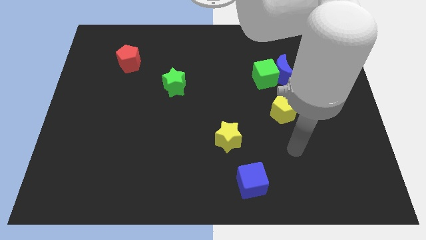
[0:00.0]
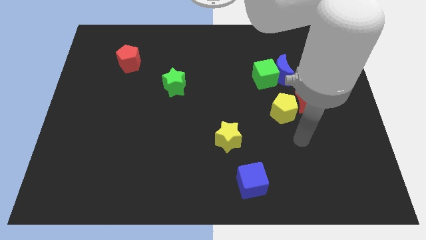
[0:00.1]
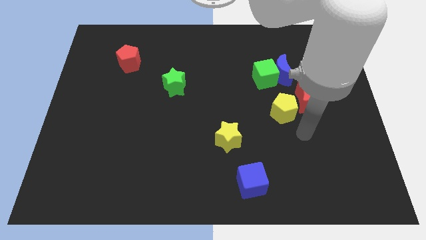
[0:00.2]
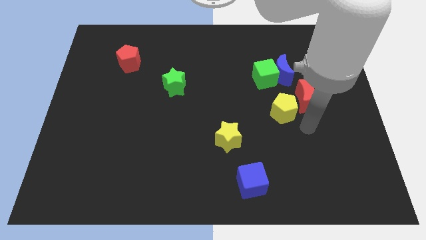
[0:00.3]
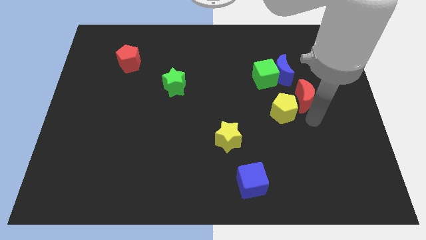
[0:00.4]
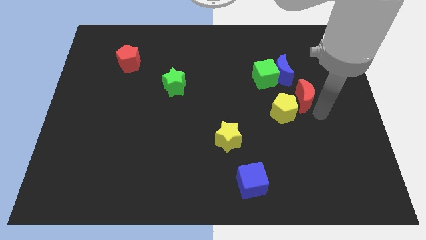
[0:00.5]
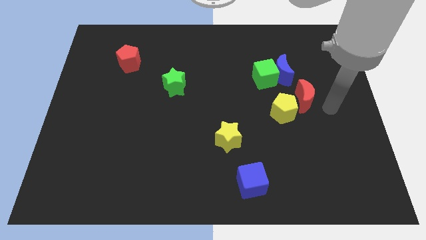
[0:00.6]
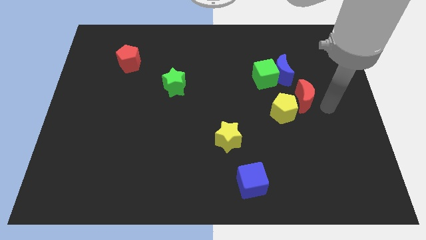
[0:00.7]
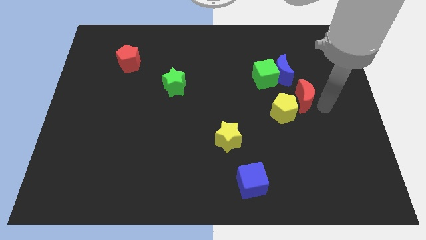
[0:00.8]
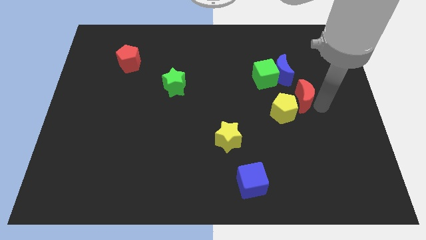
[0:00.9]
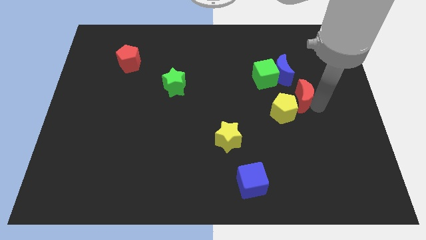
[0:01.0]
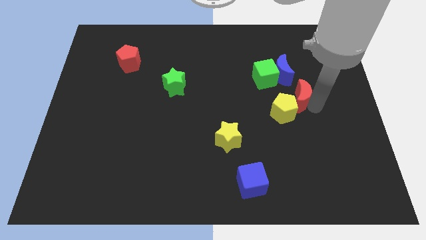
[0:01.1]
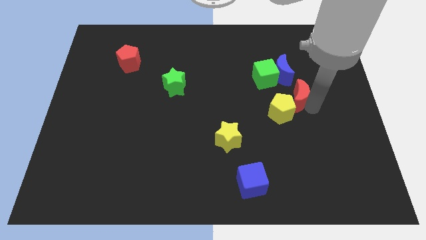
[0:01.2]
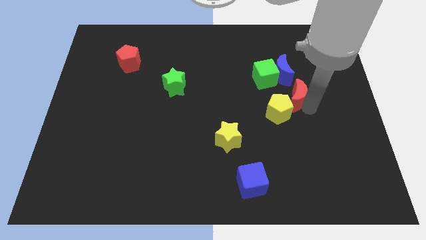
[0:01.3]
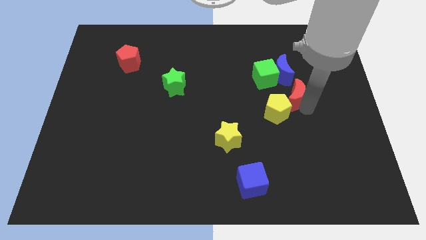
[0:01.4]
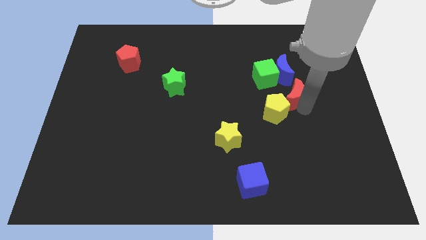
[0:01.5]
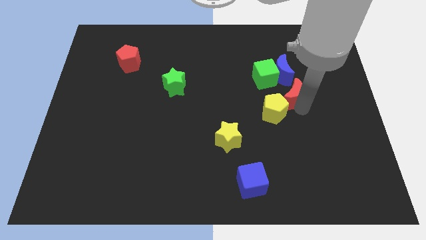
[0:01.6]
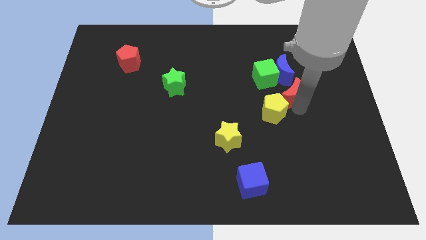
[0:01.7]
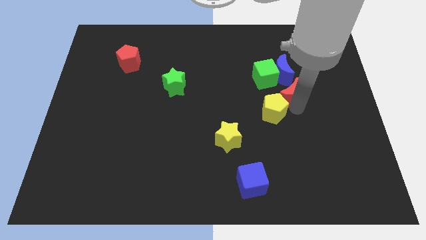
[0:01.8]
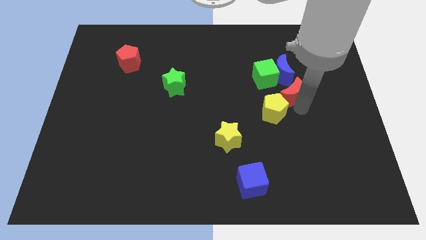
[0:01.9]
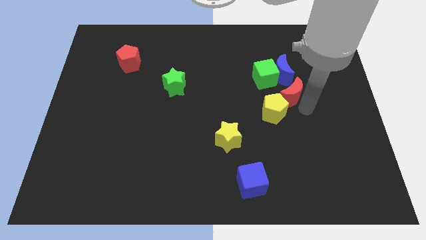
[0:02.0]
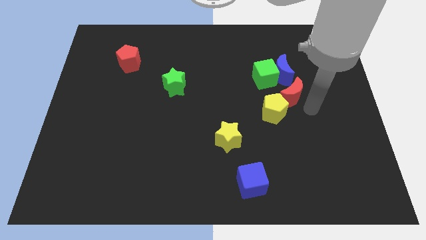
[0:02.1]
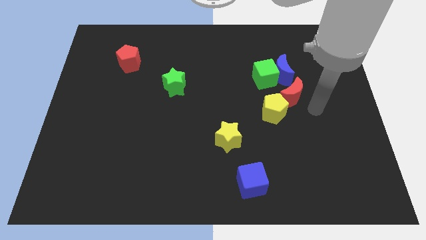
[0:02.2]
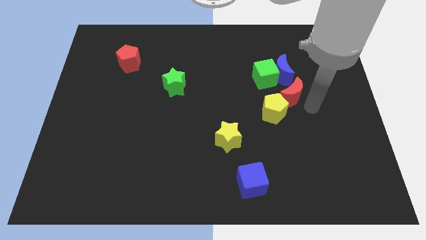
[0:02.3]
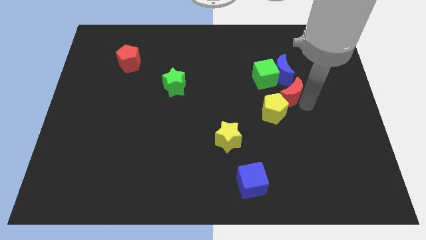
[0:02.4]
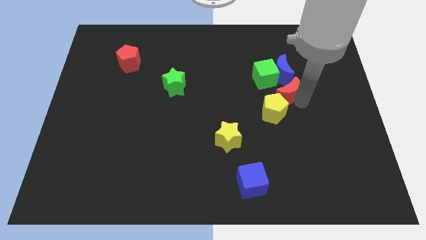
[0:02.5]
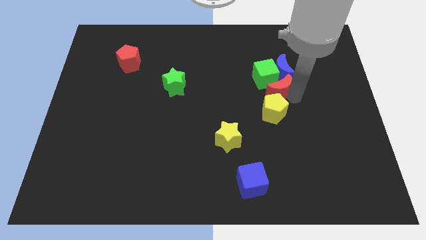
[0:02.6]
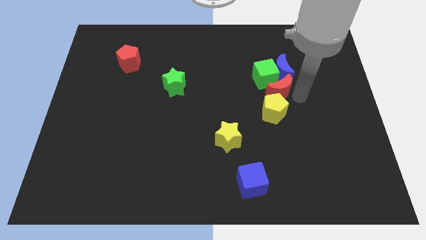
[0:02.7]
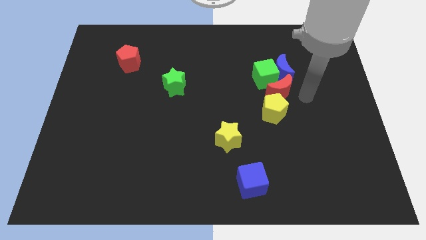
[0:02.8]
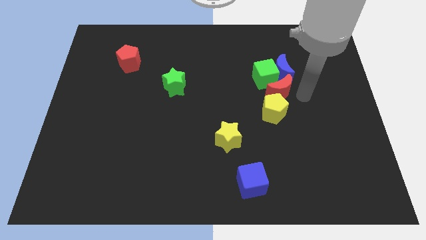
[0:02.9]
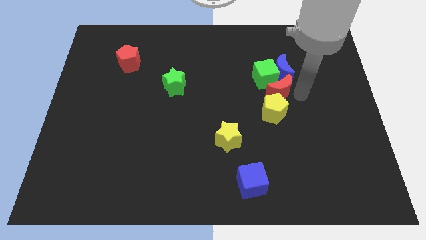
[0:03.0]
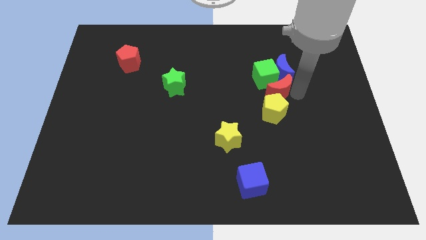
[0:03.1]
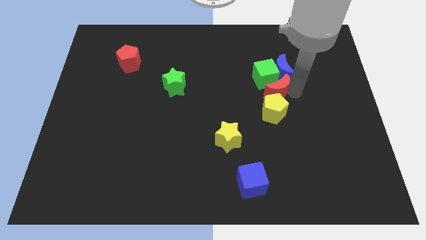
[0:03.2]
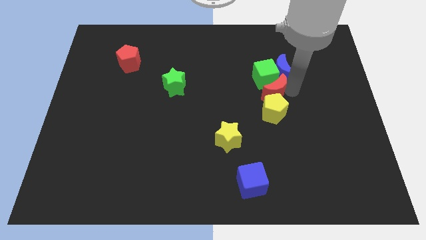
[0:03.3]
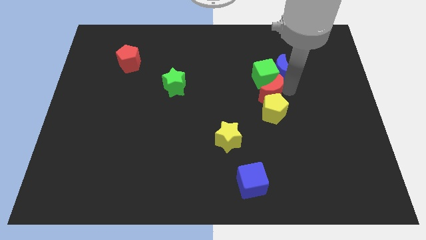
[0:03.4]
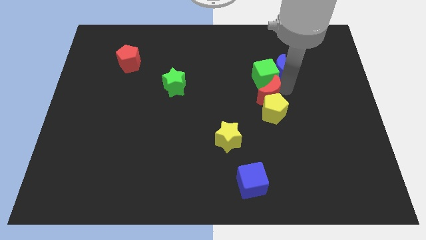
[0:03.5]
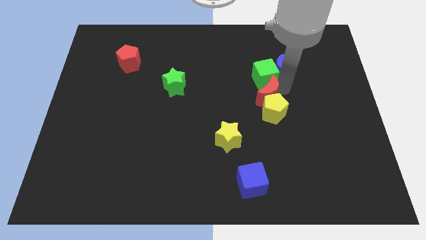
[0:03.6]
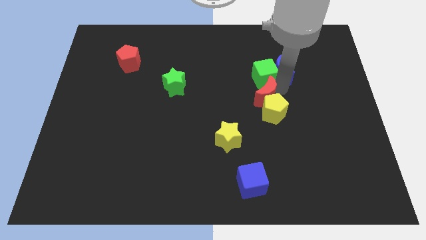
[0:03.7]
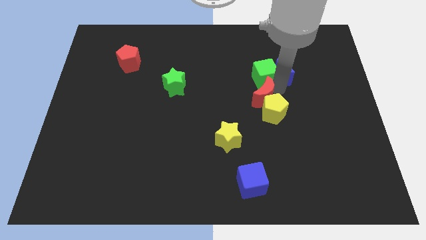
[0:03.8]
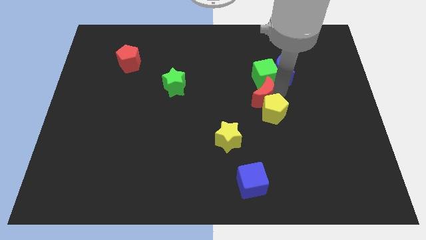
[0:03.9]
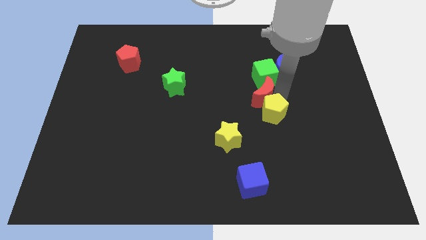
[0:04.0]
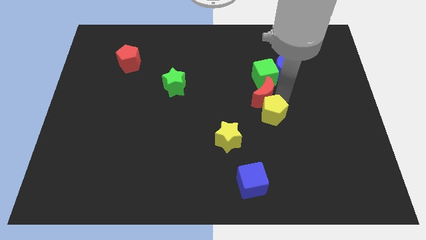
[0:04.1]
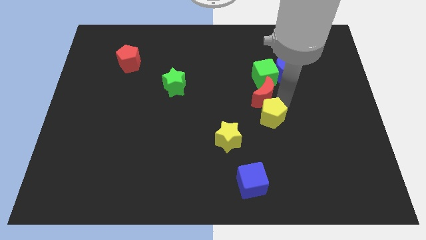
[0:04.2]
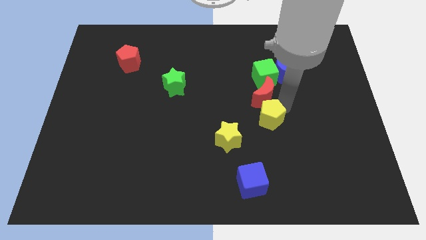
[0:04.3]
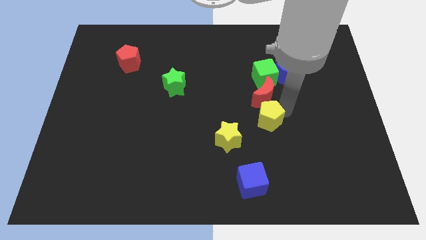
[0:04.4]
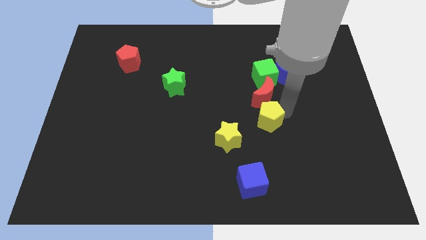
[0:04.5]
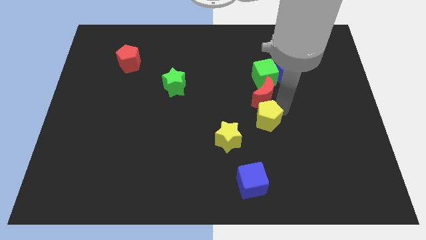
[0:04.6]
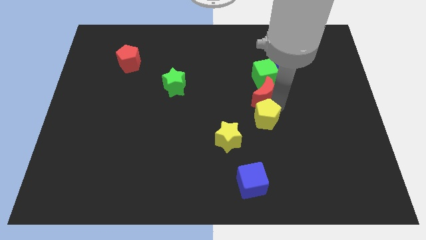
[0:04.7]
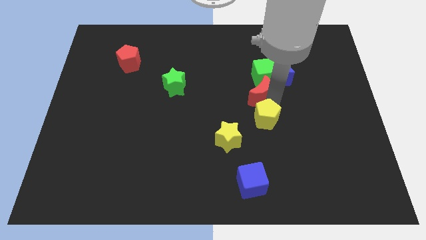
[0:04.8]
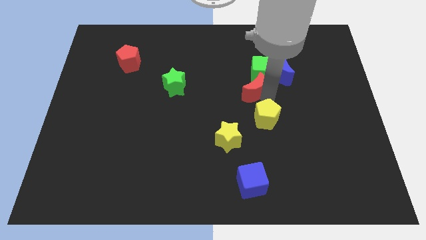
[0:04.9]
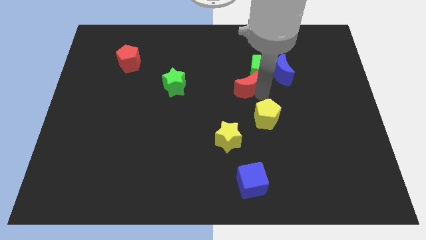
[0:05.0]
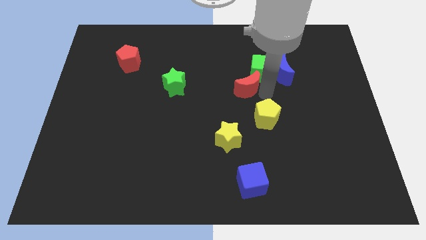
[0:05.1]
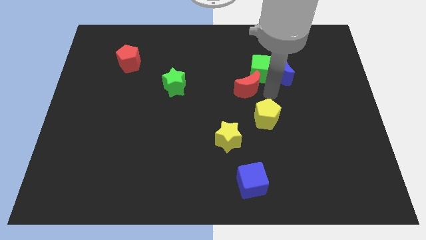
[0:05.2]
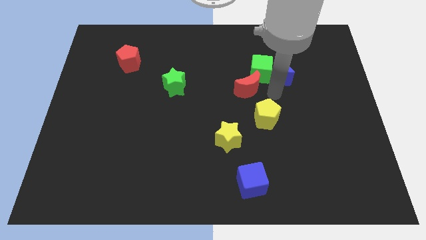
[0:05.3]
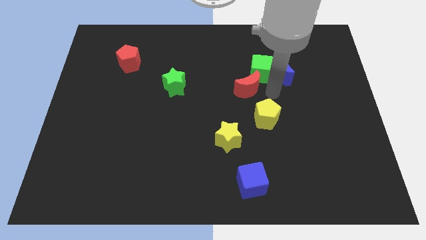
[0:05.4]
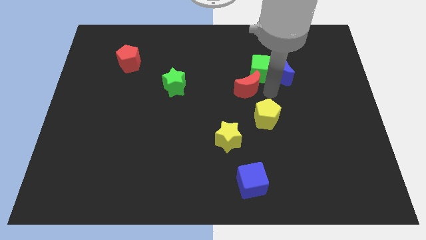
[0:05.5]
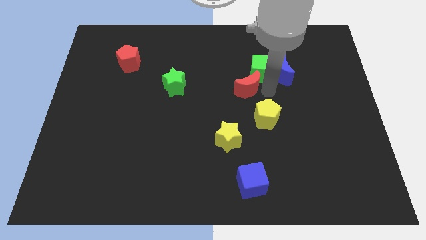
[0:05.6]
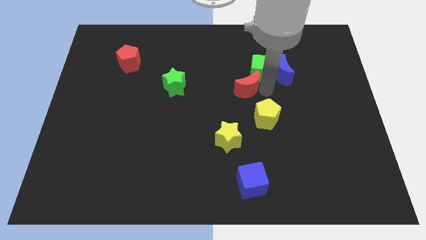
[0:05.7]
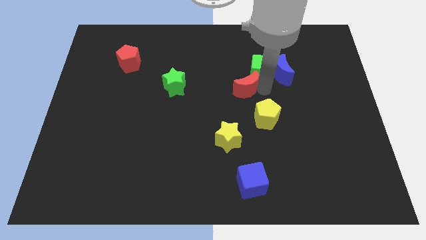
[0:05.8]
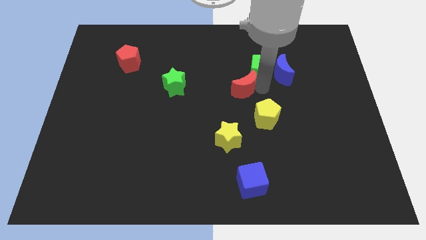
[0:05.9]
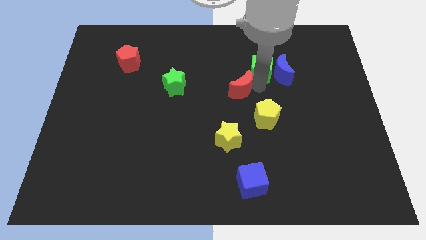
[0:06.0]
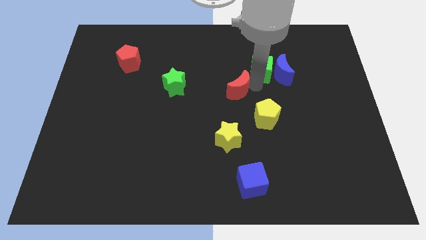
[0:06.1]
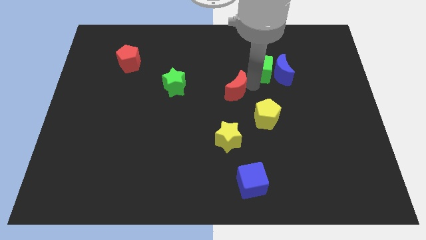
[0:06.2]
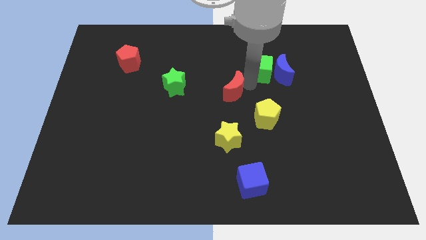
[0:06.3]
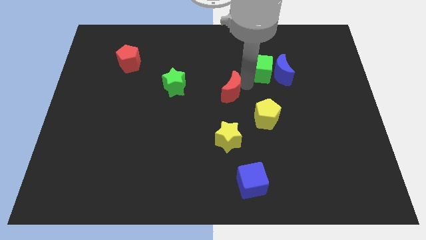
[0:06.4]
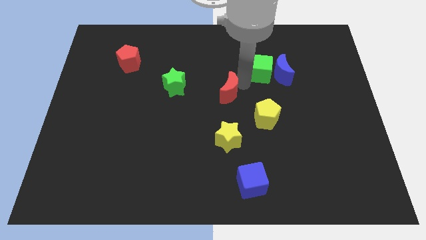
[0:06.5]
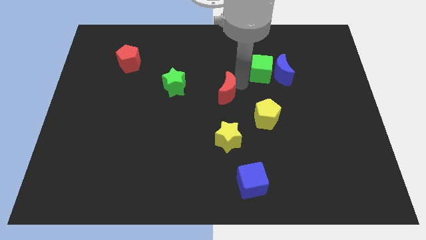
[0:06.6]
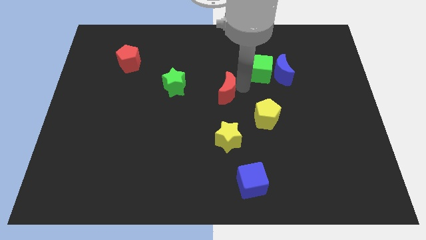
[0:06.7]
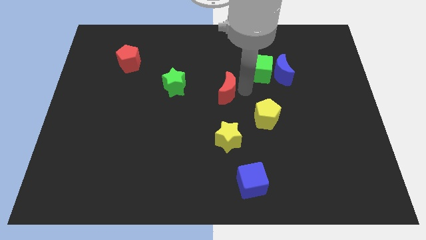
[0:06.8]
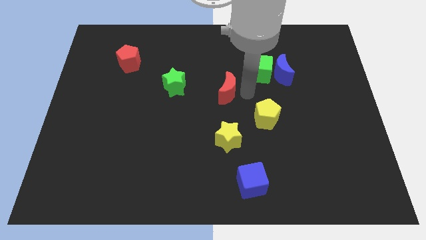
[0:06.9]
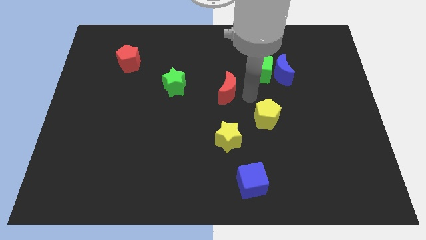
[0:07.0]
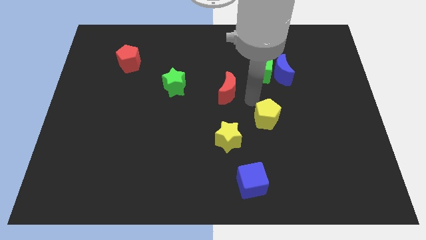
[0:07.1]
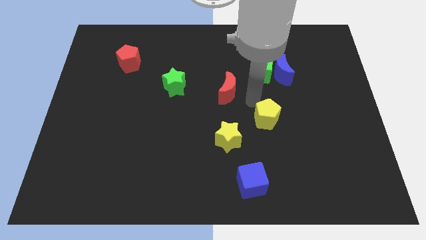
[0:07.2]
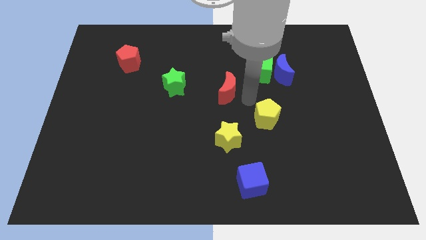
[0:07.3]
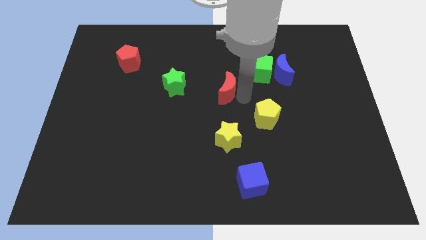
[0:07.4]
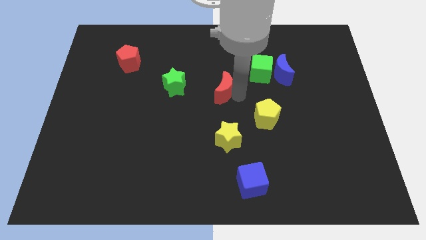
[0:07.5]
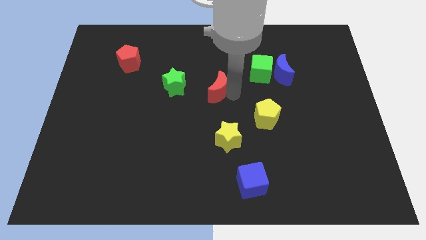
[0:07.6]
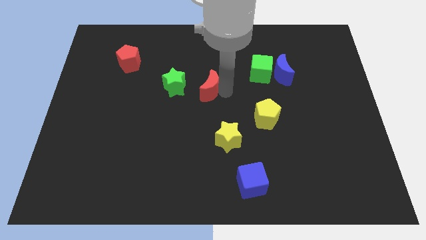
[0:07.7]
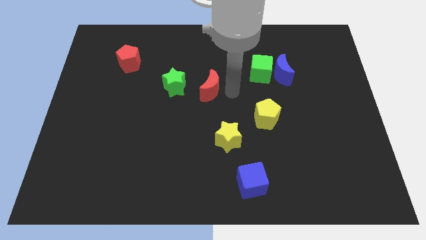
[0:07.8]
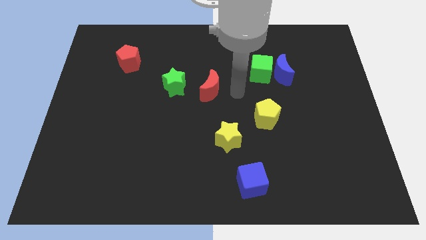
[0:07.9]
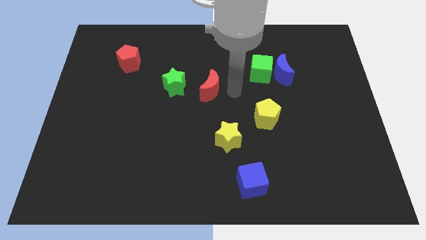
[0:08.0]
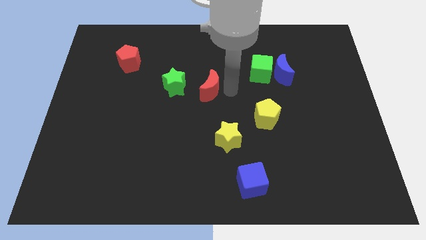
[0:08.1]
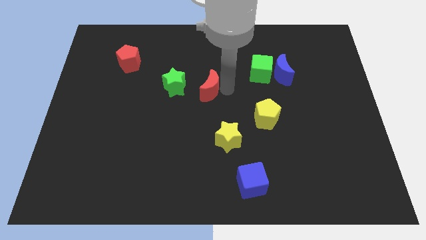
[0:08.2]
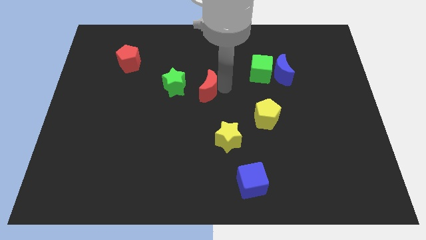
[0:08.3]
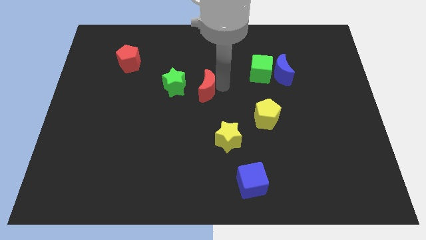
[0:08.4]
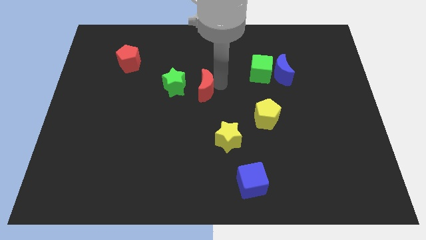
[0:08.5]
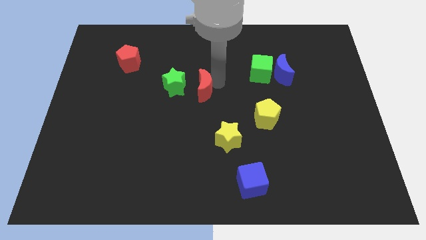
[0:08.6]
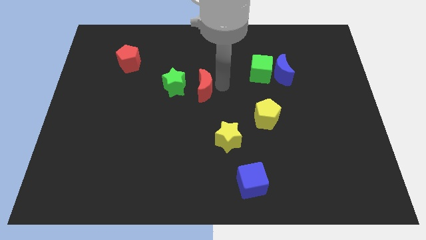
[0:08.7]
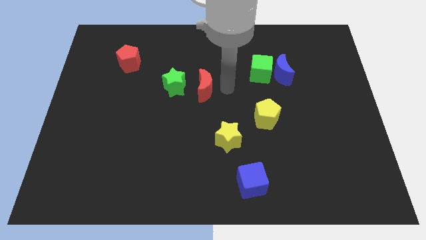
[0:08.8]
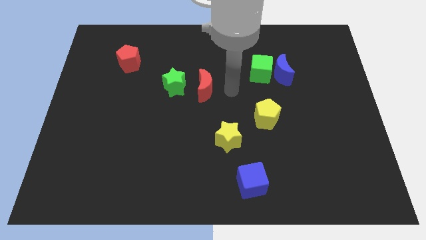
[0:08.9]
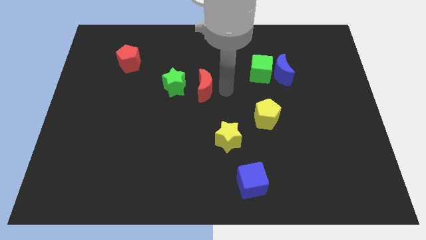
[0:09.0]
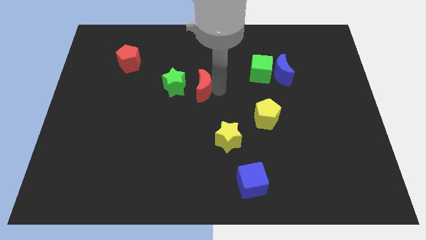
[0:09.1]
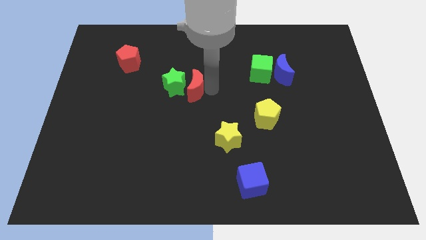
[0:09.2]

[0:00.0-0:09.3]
put the red moon close to the green star
